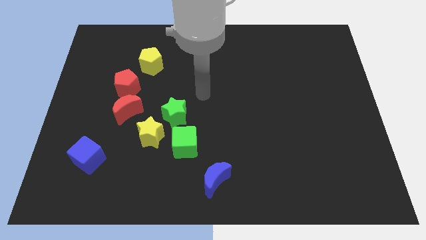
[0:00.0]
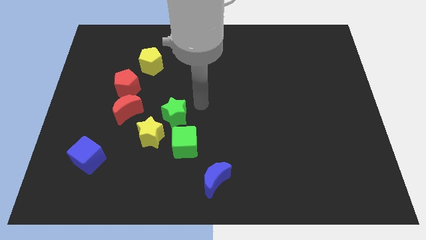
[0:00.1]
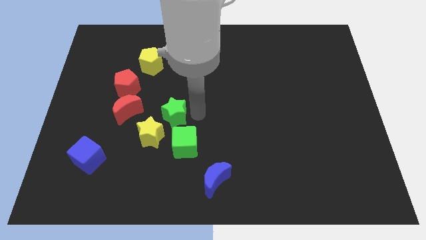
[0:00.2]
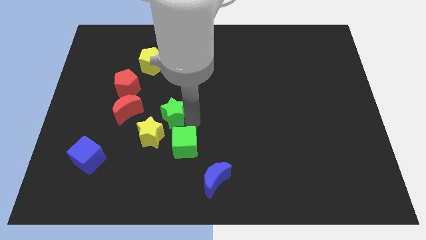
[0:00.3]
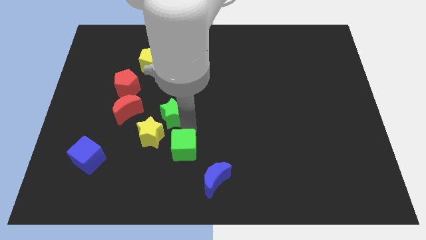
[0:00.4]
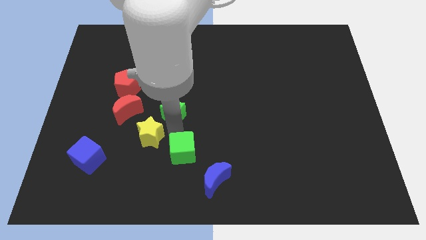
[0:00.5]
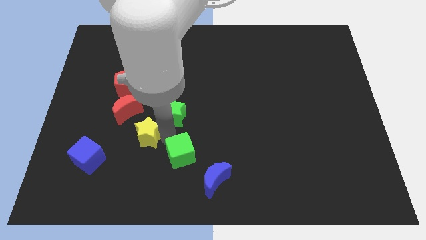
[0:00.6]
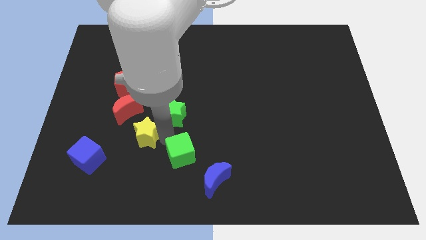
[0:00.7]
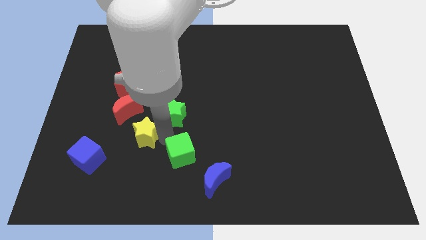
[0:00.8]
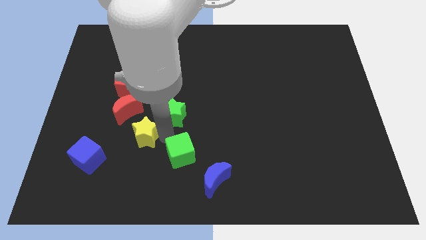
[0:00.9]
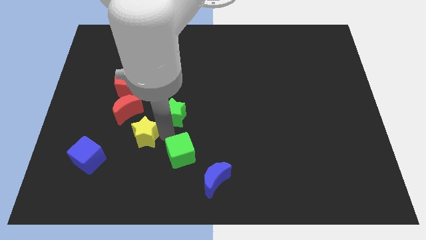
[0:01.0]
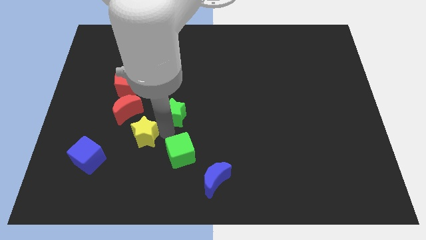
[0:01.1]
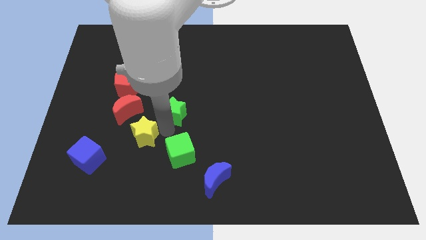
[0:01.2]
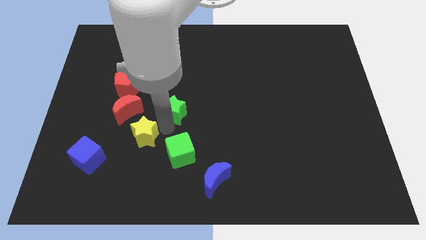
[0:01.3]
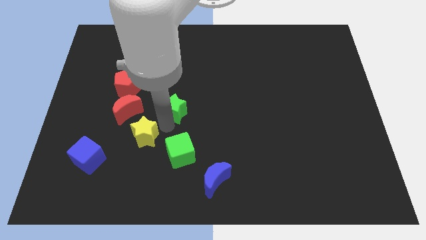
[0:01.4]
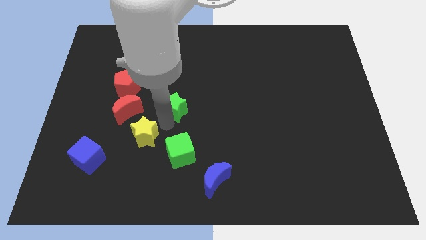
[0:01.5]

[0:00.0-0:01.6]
pull the green star apart from the yellow star and green cube

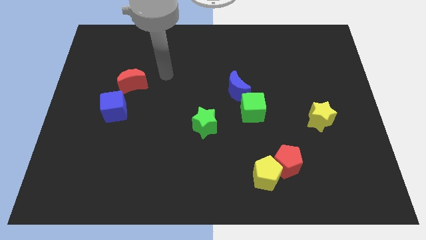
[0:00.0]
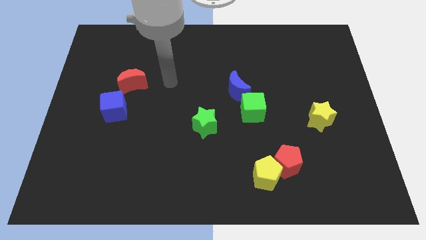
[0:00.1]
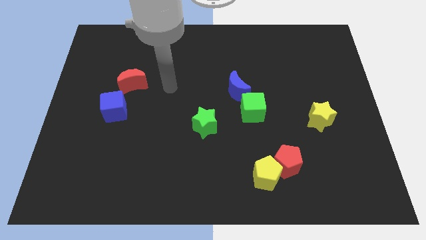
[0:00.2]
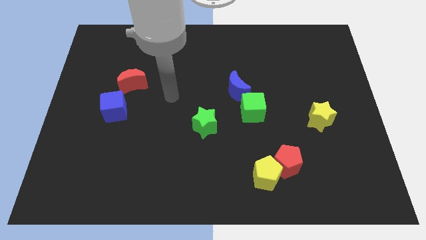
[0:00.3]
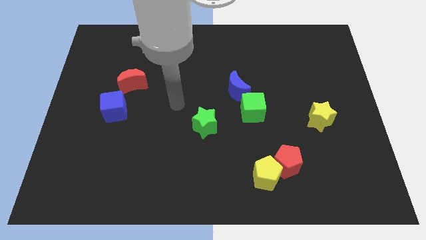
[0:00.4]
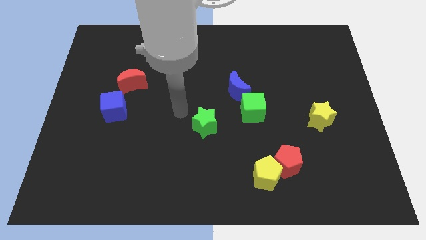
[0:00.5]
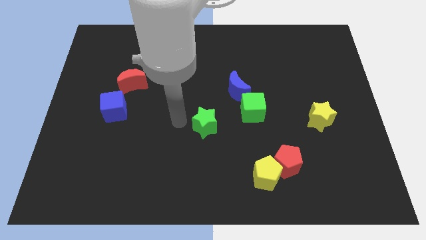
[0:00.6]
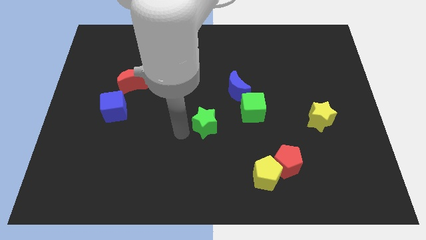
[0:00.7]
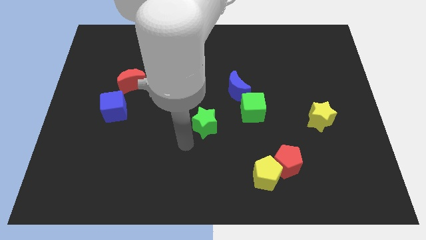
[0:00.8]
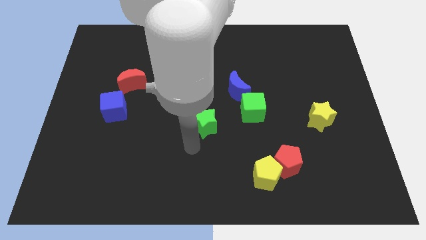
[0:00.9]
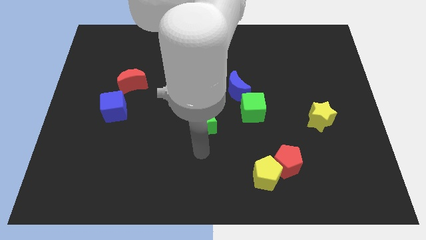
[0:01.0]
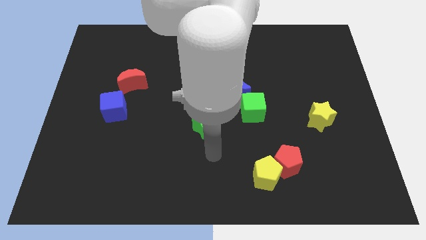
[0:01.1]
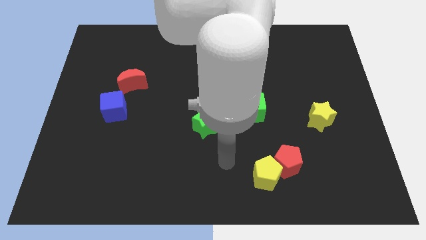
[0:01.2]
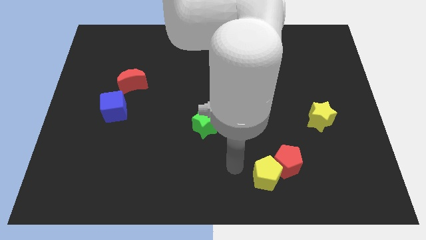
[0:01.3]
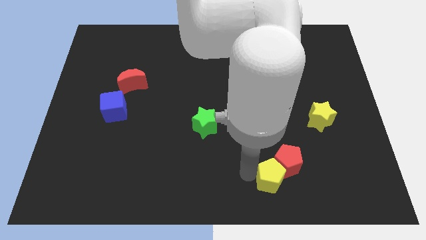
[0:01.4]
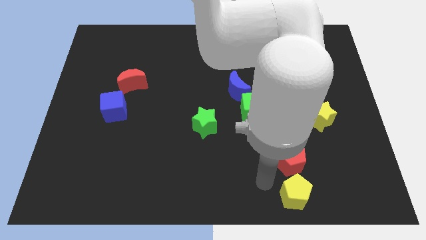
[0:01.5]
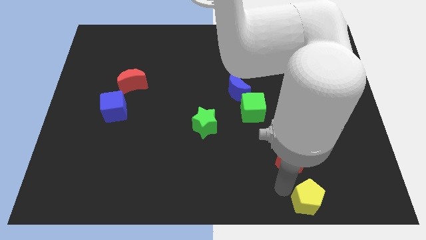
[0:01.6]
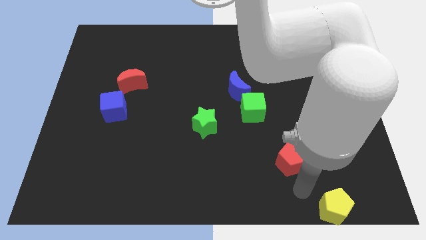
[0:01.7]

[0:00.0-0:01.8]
move the red pentagon away from the yellow pentagon

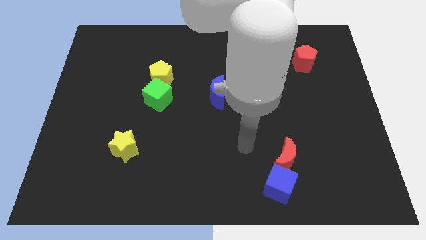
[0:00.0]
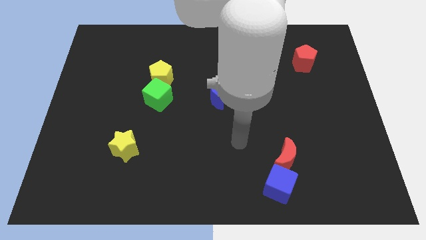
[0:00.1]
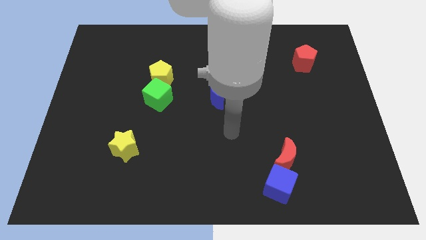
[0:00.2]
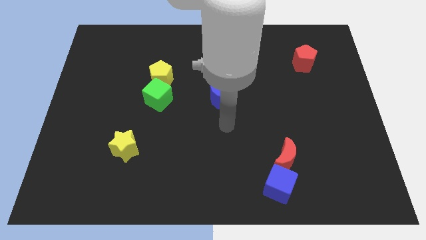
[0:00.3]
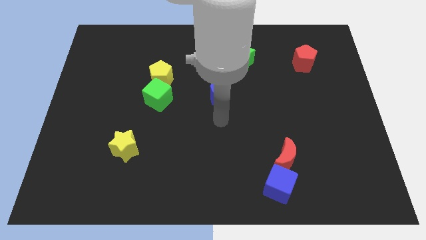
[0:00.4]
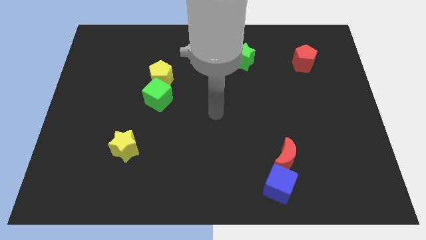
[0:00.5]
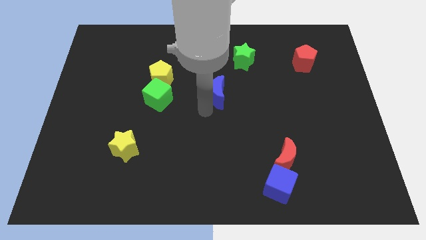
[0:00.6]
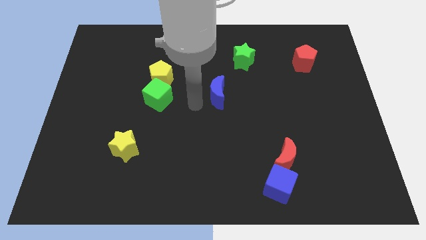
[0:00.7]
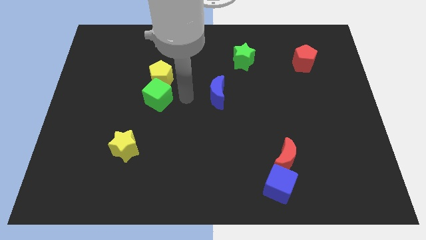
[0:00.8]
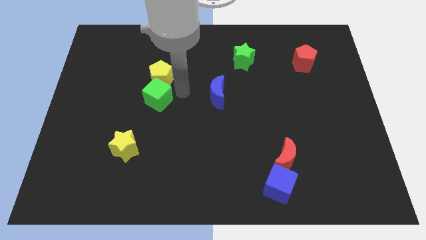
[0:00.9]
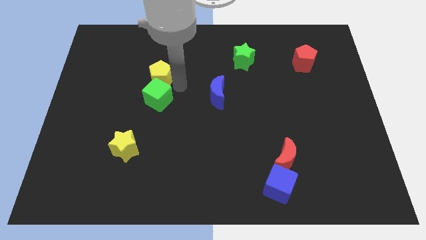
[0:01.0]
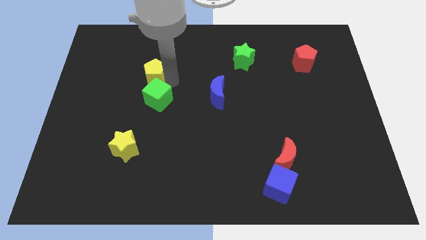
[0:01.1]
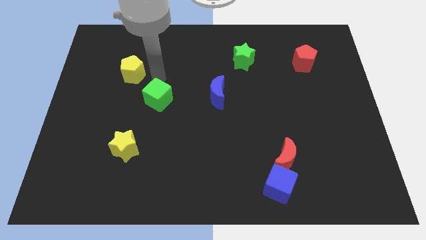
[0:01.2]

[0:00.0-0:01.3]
move the green cube away from the yellow pentagon

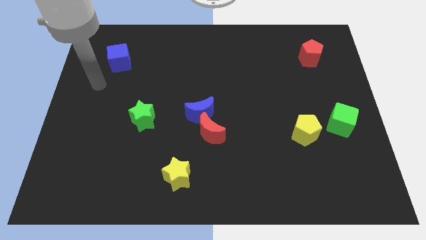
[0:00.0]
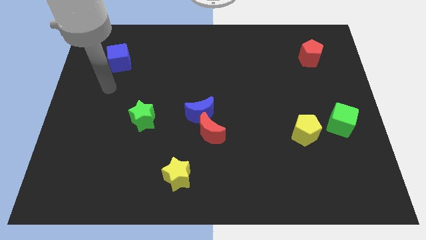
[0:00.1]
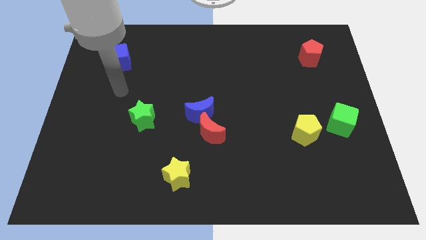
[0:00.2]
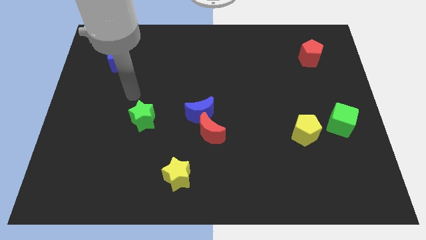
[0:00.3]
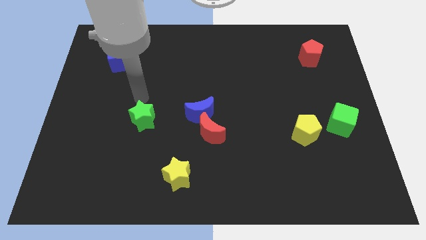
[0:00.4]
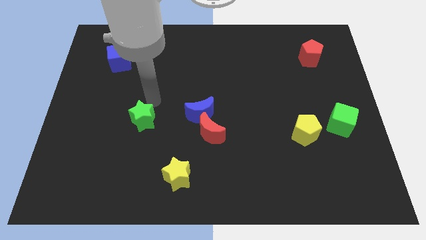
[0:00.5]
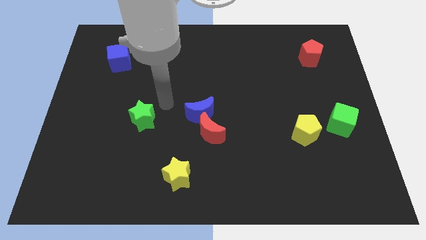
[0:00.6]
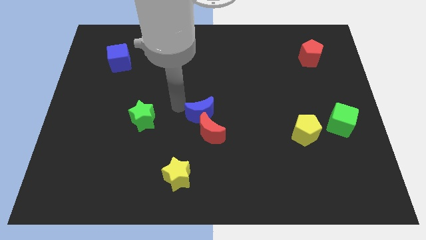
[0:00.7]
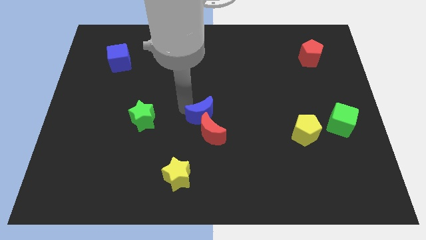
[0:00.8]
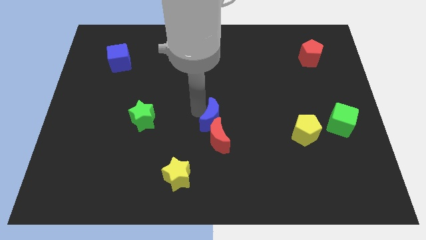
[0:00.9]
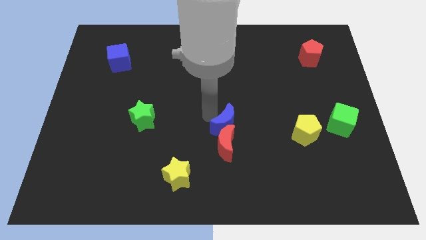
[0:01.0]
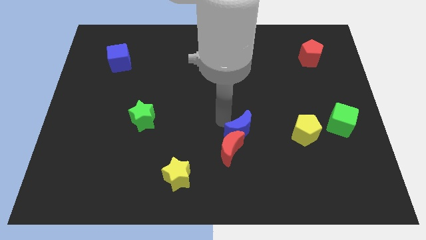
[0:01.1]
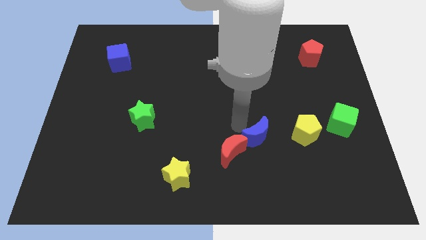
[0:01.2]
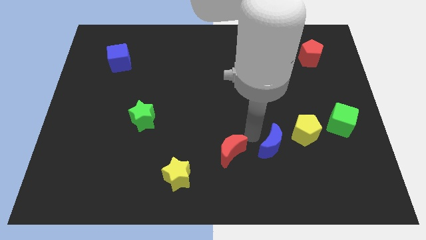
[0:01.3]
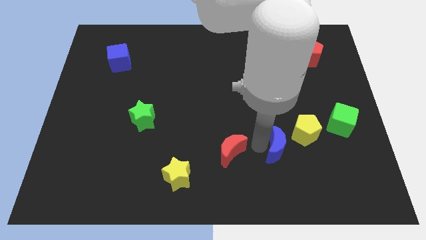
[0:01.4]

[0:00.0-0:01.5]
separate the red moon from the blue moon

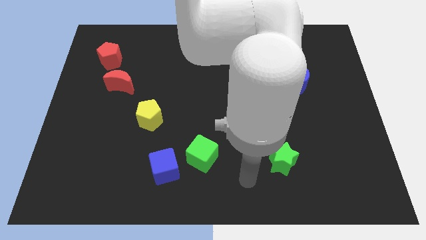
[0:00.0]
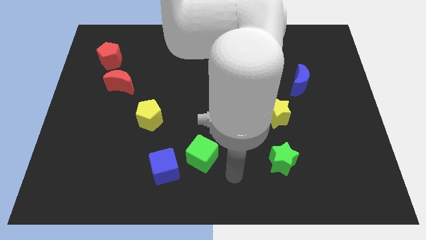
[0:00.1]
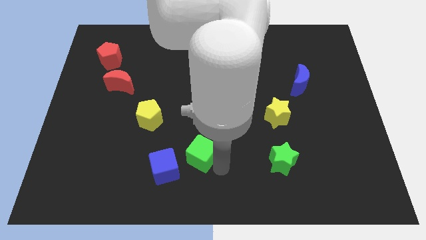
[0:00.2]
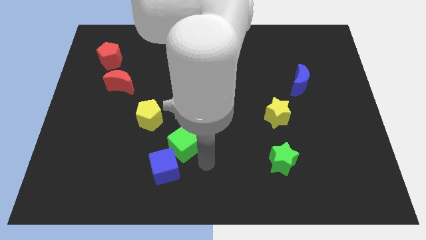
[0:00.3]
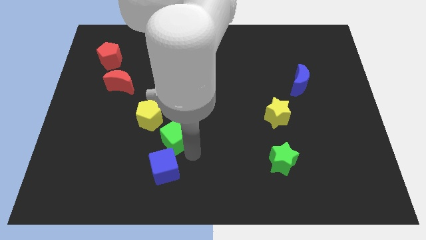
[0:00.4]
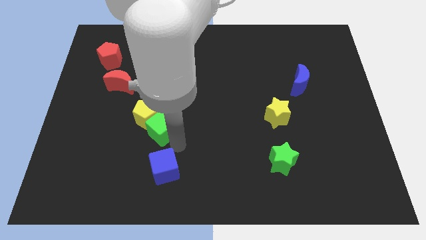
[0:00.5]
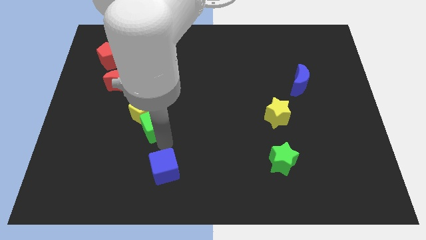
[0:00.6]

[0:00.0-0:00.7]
separate the blue cube from the green cube

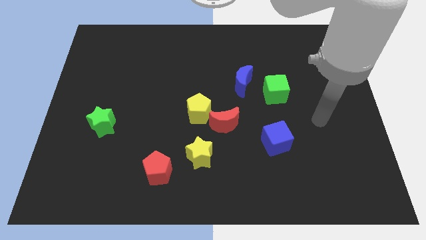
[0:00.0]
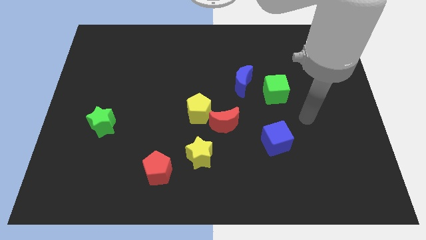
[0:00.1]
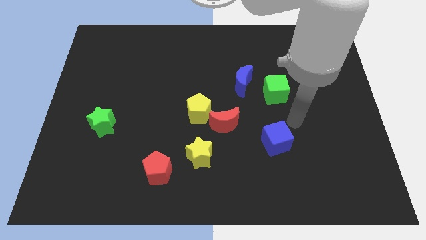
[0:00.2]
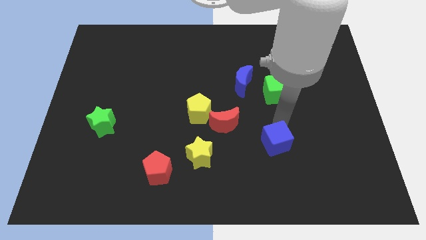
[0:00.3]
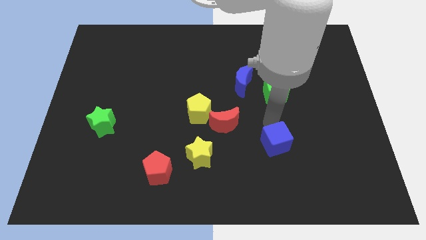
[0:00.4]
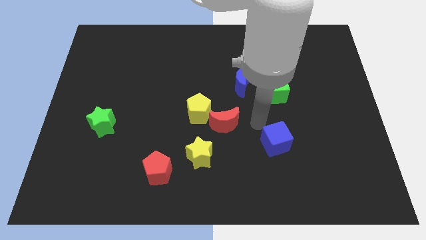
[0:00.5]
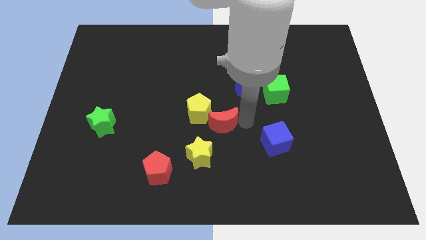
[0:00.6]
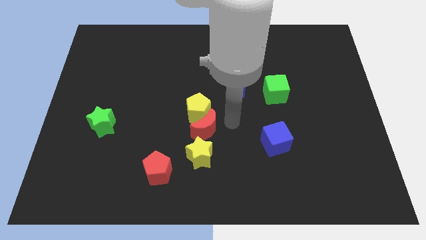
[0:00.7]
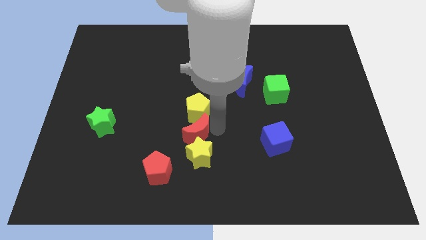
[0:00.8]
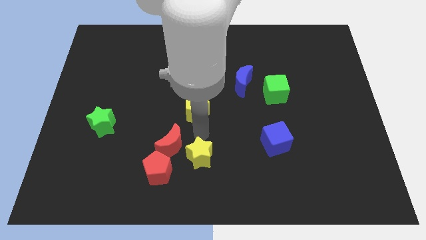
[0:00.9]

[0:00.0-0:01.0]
move the yellow pentagon away from the red moon

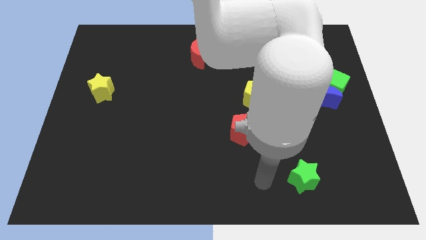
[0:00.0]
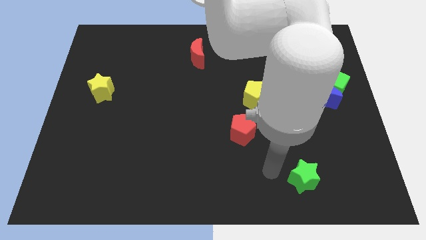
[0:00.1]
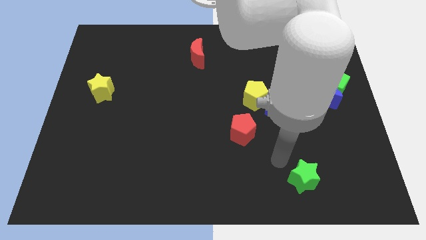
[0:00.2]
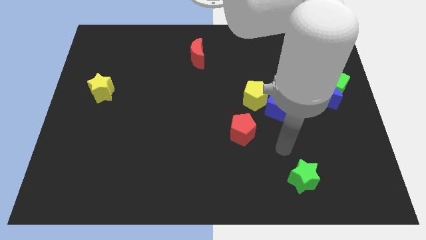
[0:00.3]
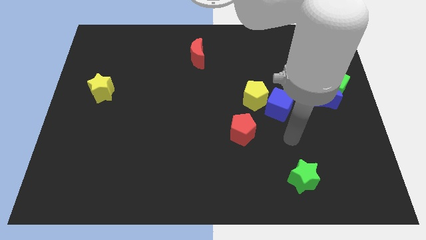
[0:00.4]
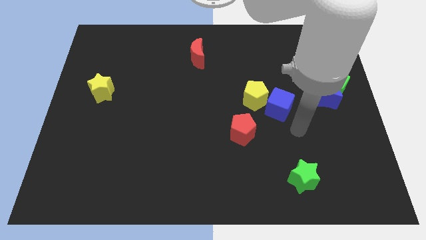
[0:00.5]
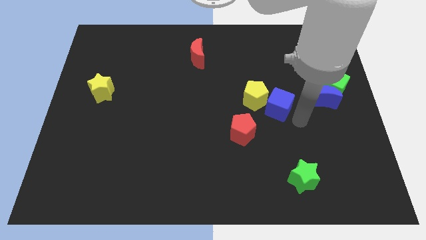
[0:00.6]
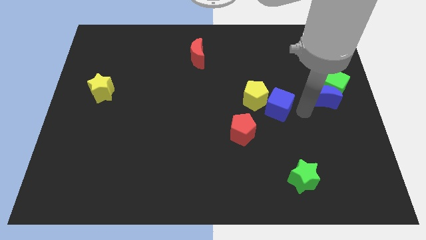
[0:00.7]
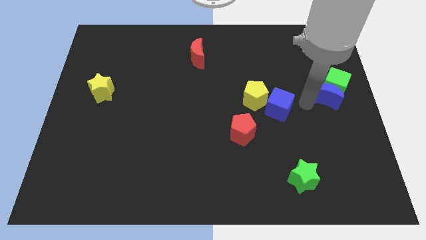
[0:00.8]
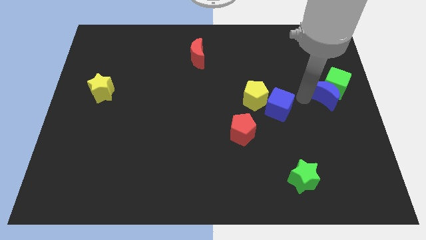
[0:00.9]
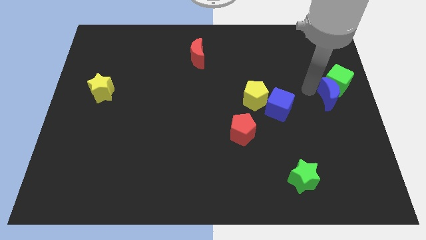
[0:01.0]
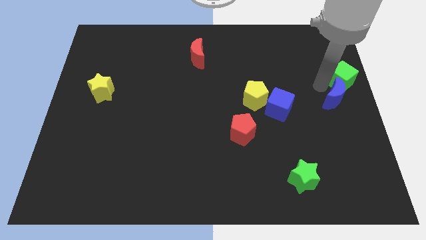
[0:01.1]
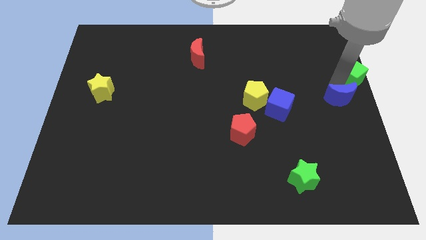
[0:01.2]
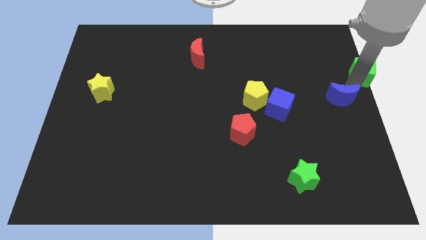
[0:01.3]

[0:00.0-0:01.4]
separate the blue moon from the green cube
